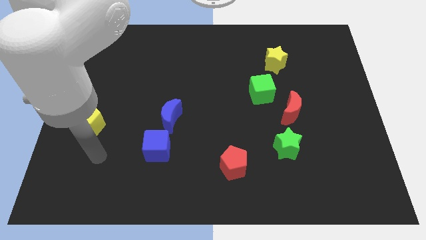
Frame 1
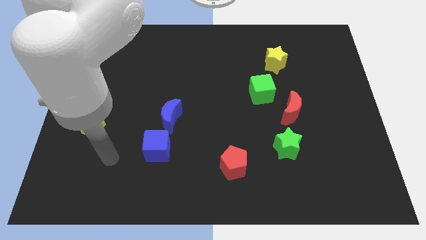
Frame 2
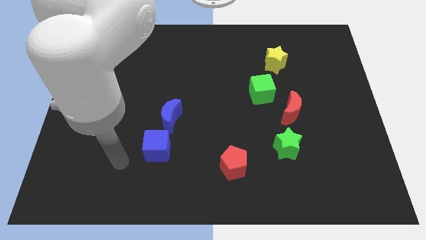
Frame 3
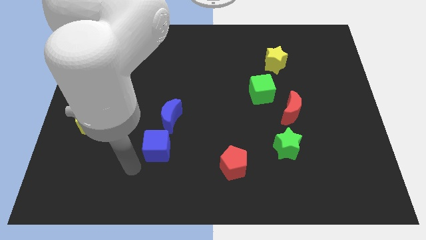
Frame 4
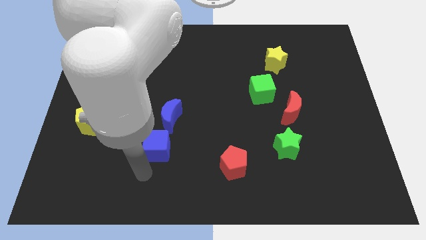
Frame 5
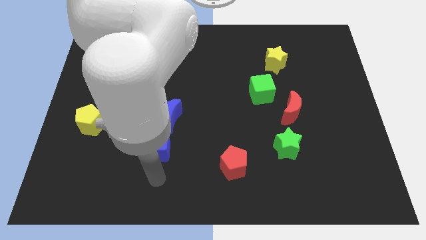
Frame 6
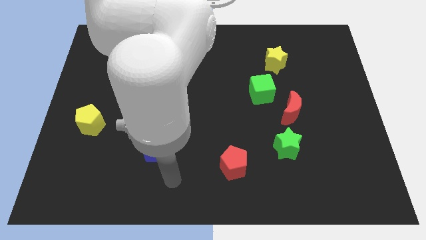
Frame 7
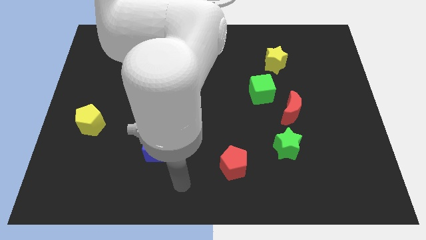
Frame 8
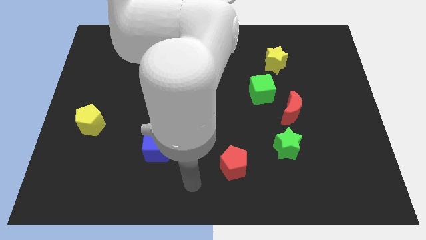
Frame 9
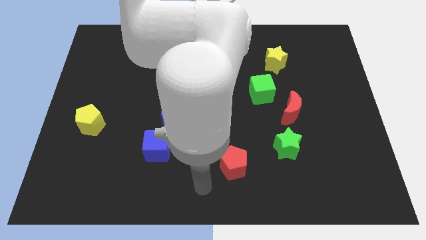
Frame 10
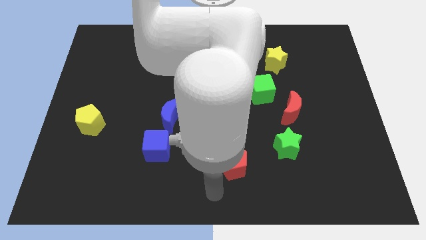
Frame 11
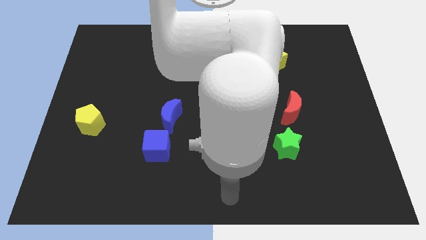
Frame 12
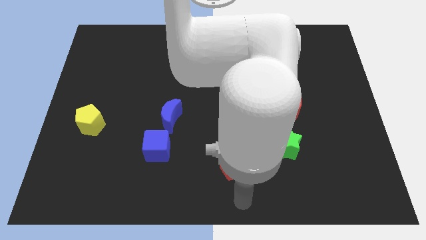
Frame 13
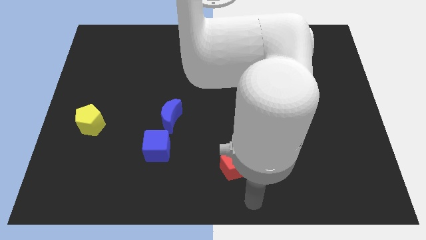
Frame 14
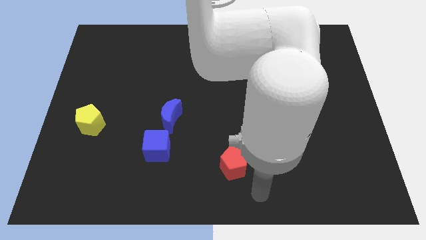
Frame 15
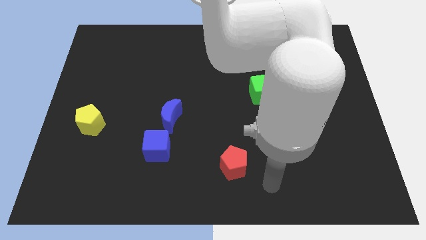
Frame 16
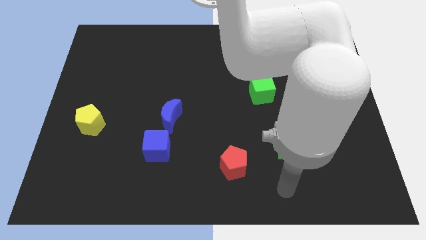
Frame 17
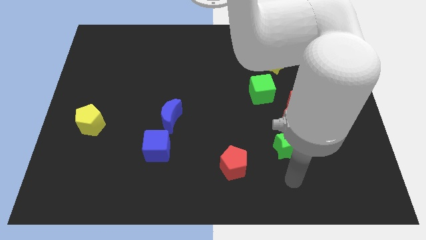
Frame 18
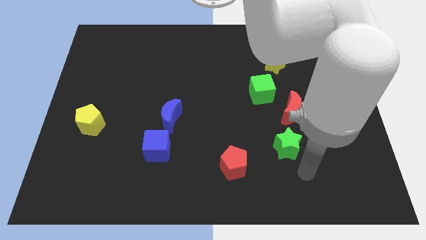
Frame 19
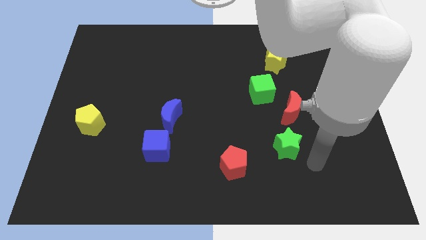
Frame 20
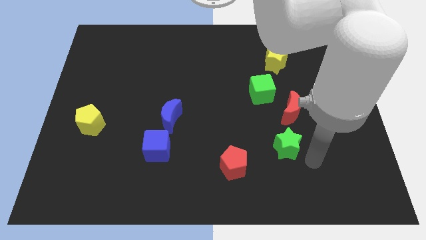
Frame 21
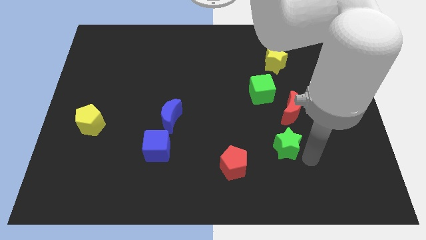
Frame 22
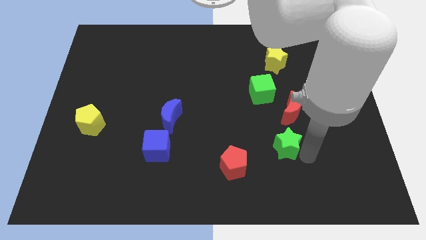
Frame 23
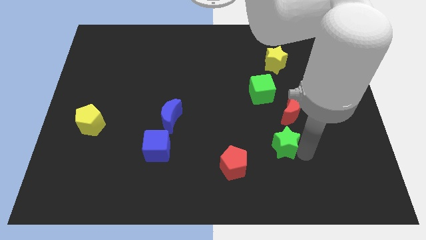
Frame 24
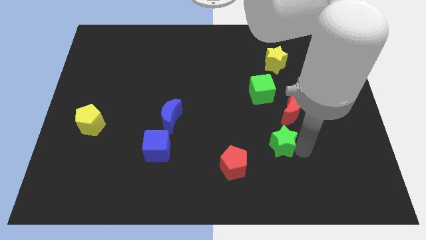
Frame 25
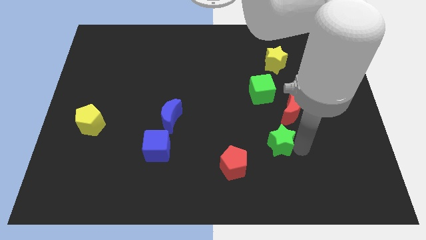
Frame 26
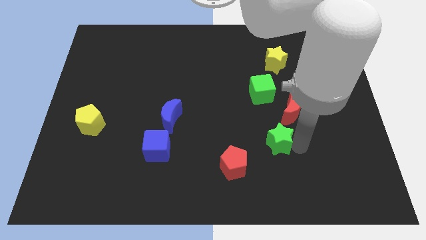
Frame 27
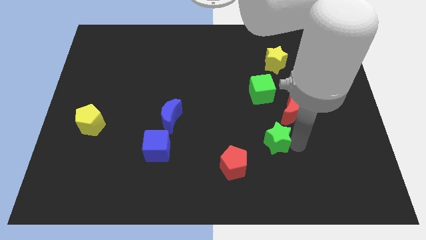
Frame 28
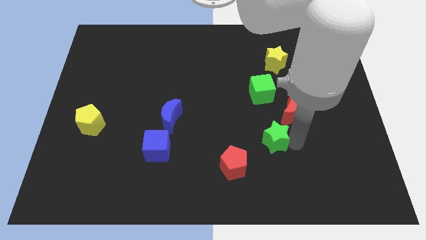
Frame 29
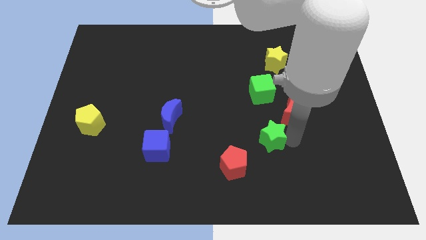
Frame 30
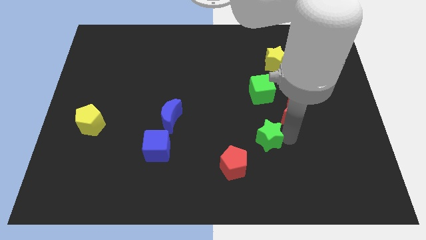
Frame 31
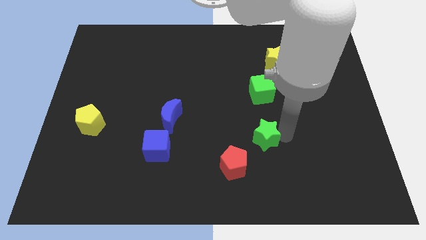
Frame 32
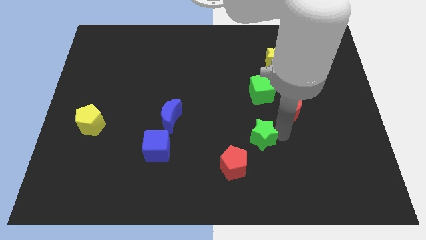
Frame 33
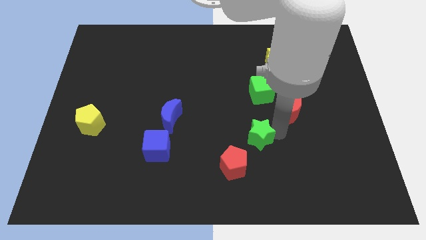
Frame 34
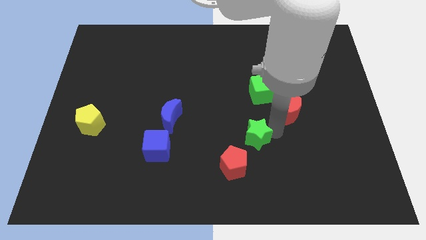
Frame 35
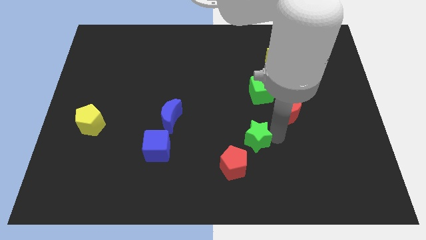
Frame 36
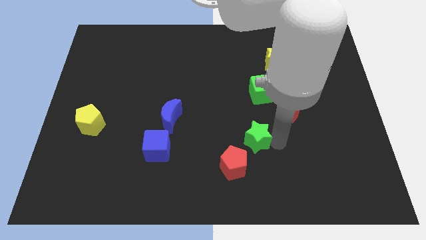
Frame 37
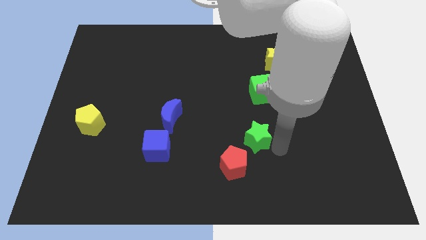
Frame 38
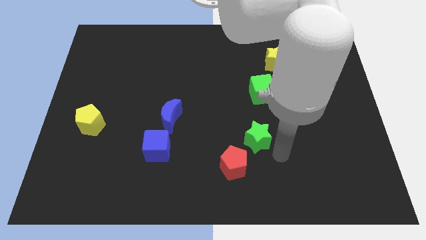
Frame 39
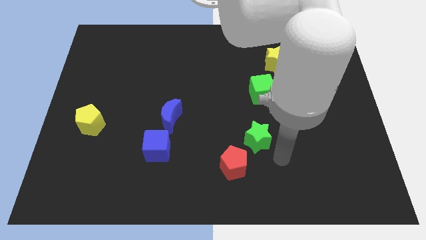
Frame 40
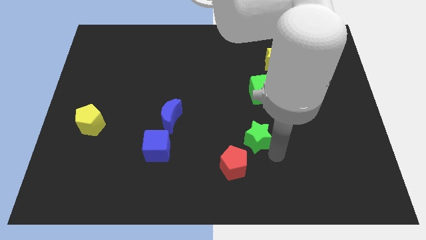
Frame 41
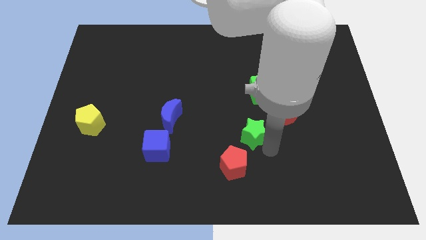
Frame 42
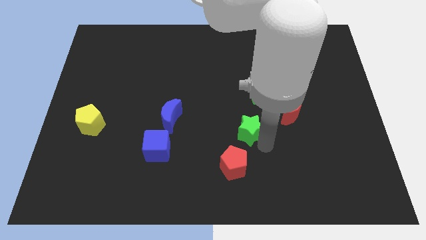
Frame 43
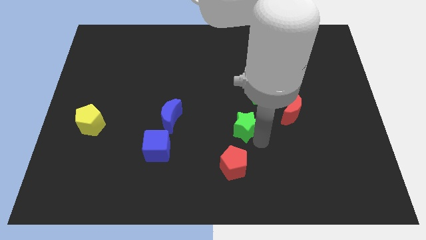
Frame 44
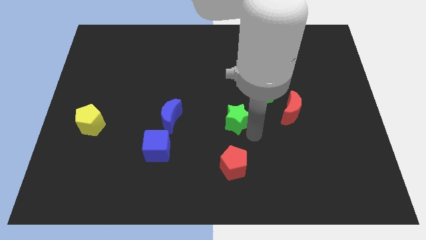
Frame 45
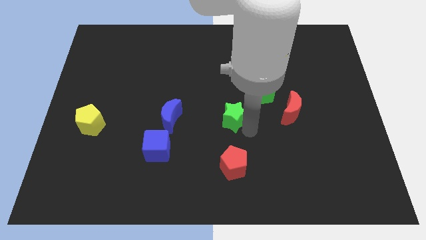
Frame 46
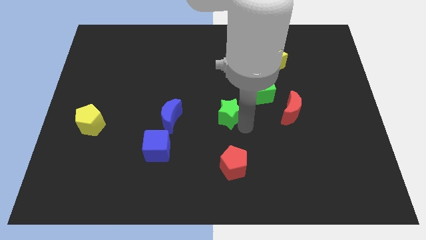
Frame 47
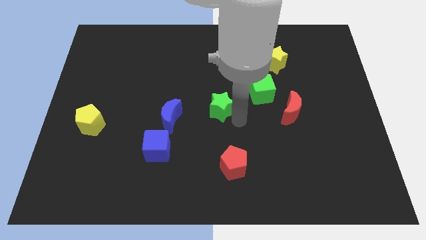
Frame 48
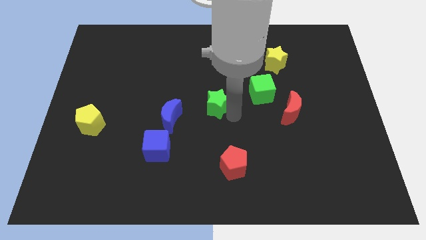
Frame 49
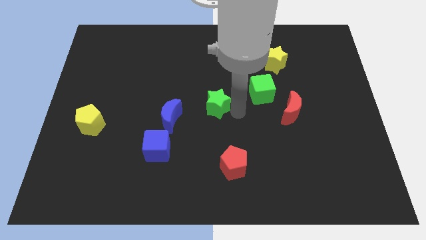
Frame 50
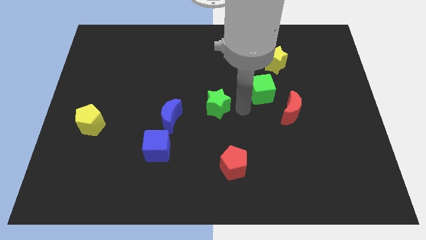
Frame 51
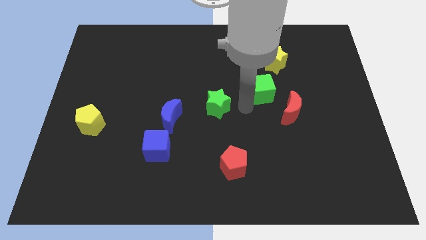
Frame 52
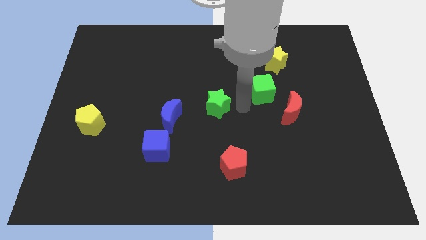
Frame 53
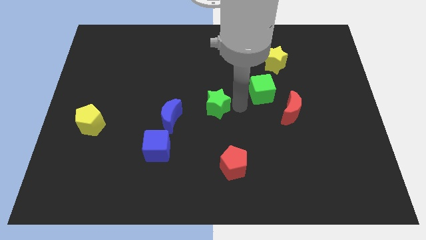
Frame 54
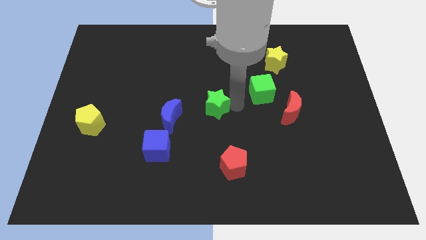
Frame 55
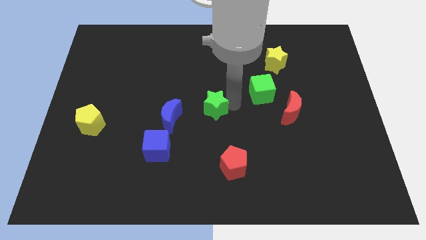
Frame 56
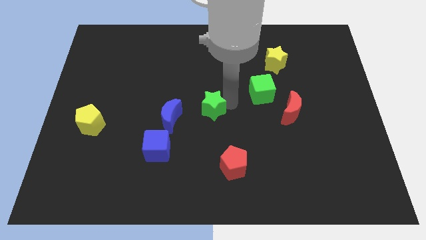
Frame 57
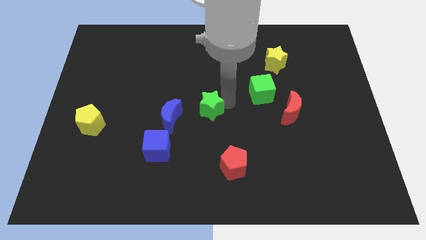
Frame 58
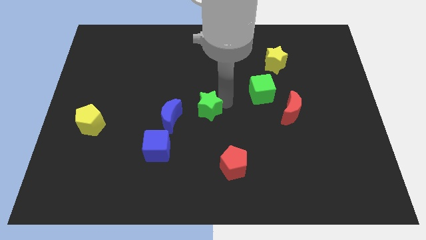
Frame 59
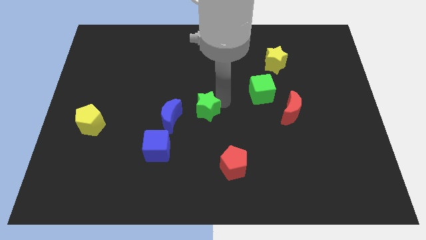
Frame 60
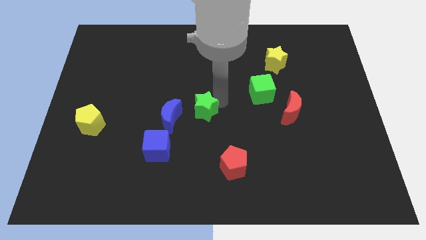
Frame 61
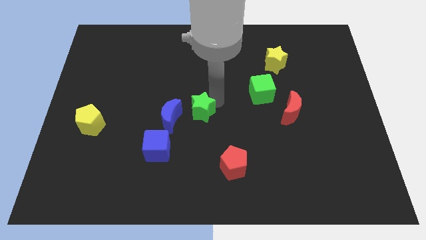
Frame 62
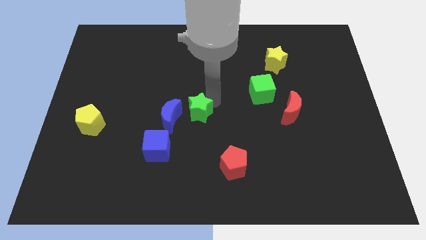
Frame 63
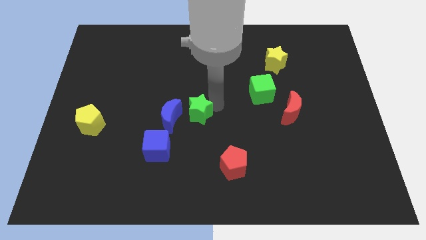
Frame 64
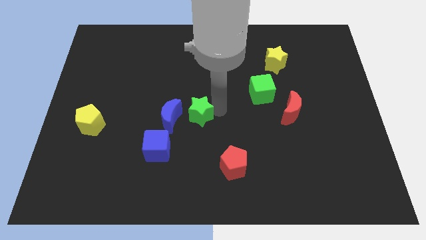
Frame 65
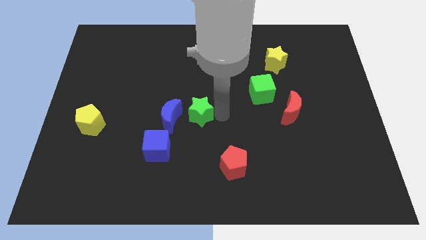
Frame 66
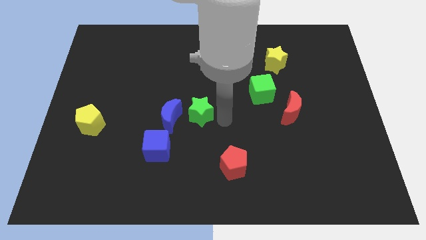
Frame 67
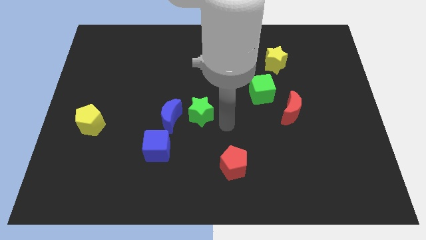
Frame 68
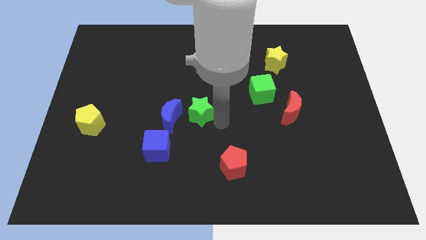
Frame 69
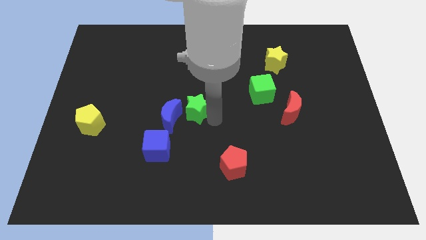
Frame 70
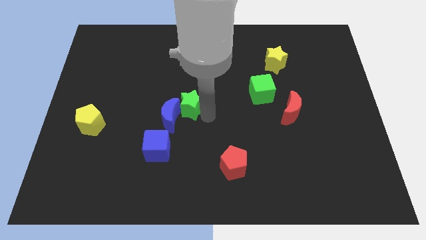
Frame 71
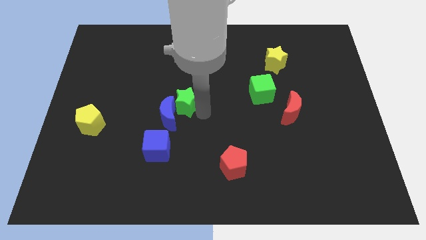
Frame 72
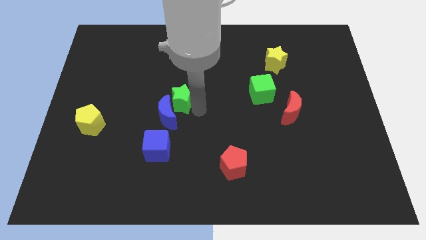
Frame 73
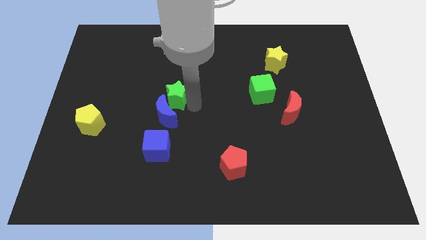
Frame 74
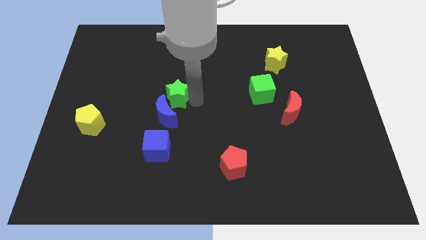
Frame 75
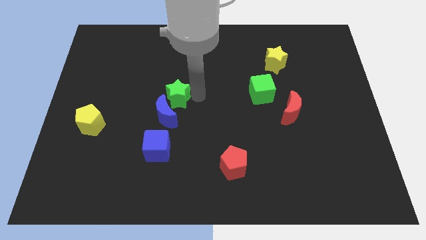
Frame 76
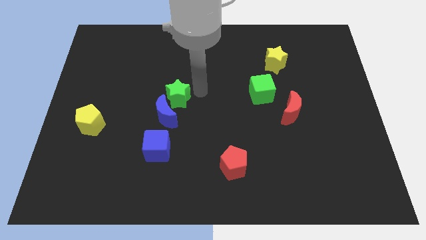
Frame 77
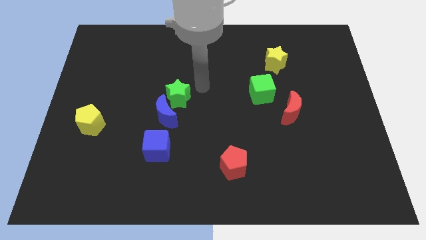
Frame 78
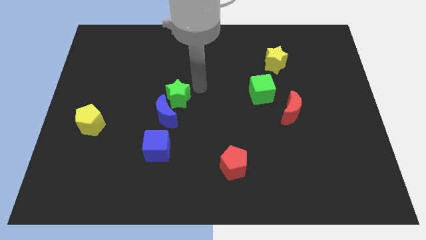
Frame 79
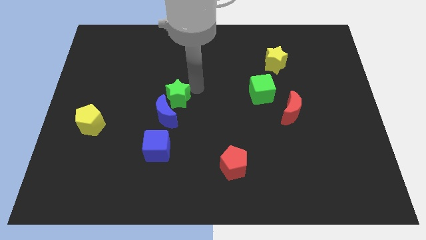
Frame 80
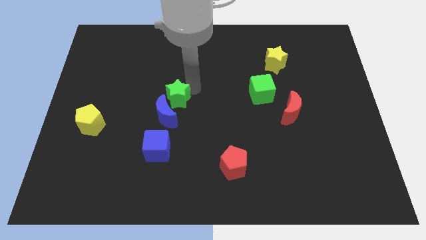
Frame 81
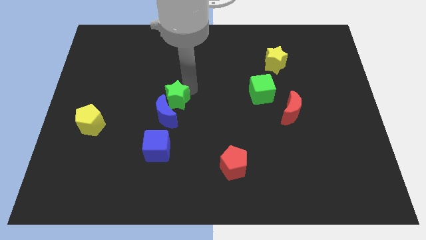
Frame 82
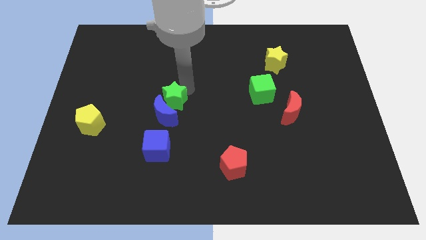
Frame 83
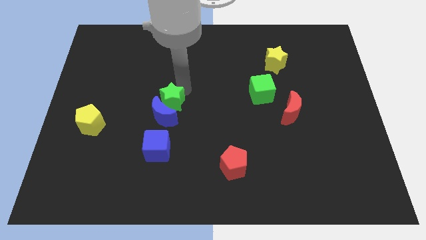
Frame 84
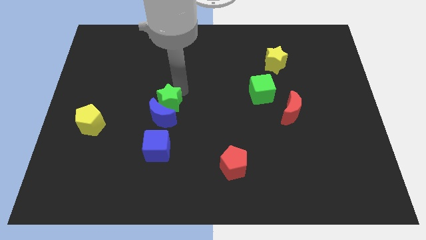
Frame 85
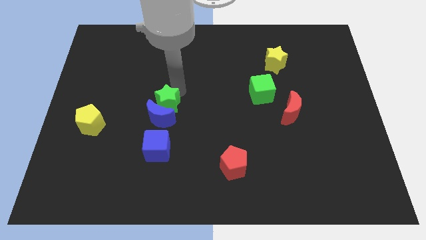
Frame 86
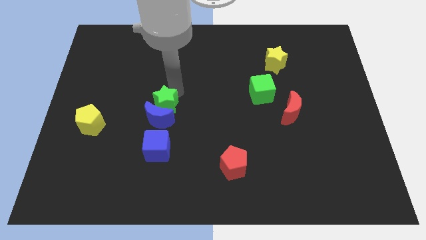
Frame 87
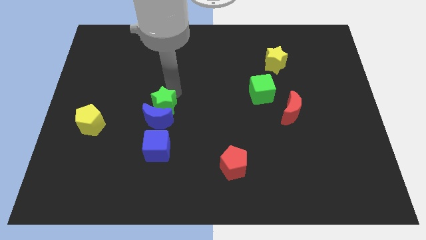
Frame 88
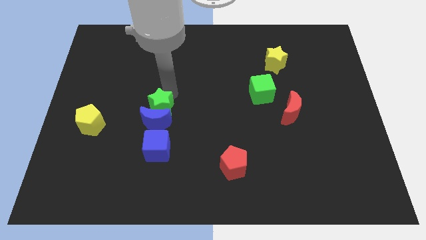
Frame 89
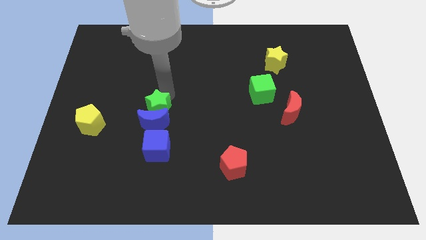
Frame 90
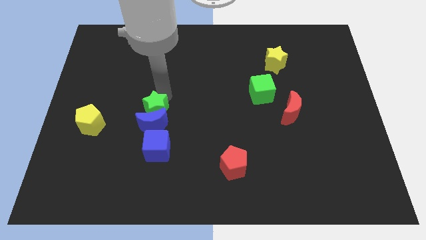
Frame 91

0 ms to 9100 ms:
slide the green star just right of the yellow pentagon
